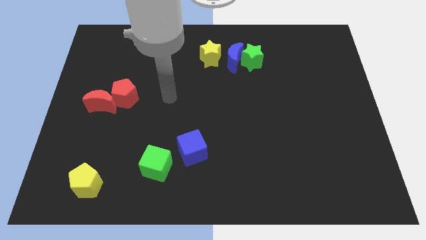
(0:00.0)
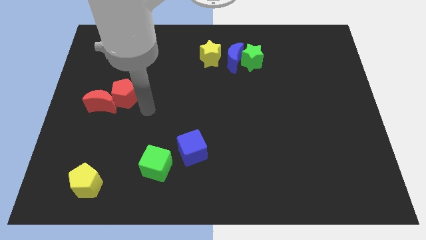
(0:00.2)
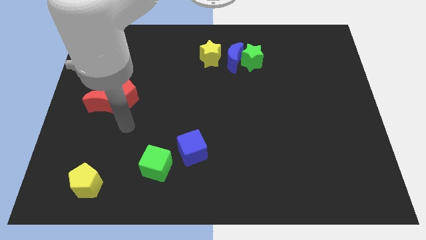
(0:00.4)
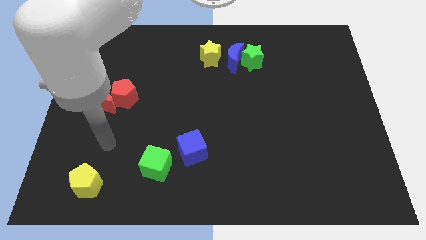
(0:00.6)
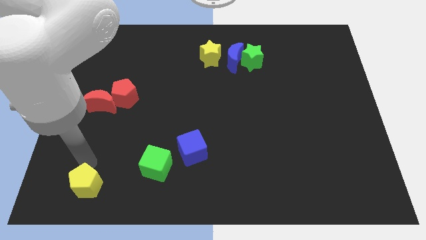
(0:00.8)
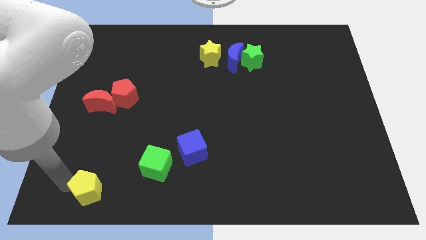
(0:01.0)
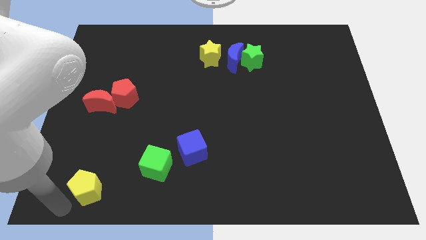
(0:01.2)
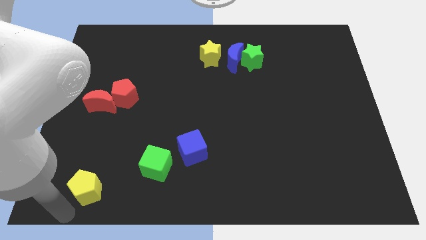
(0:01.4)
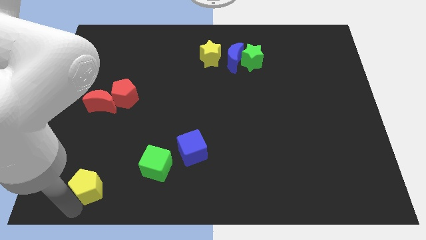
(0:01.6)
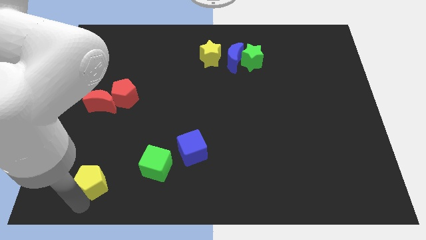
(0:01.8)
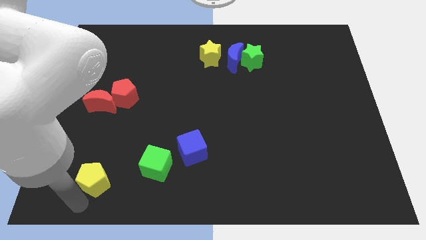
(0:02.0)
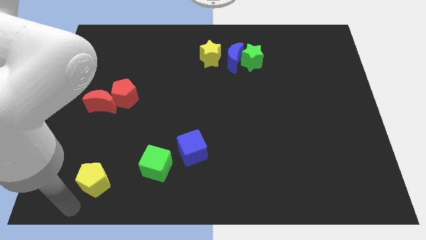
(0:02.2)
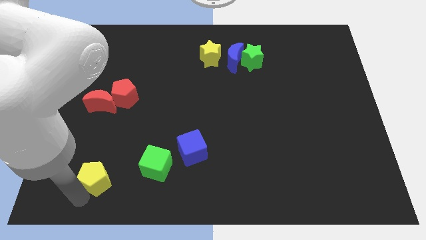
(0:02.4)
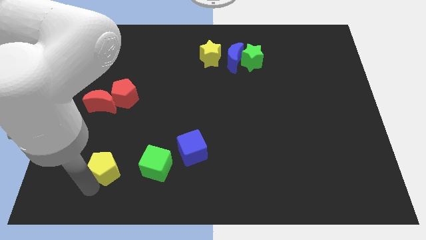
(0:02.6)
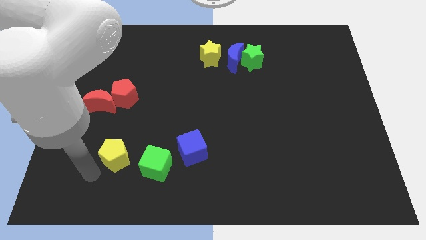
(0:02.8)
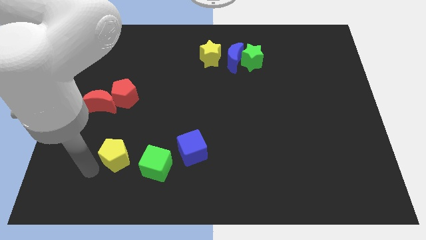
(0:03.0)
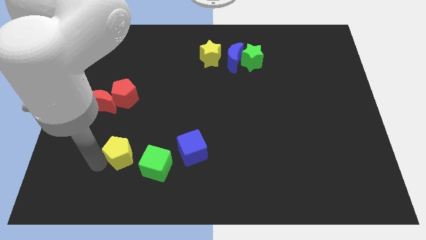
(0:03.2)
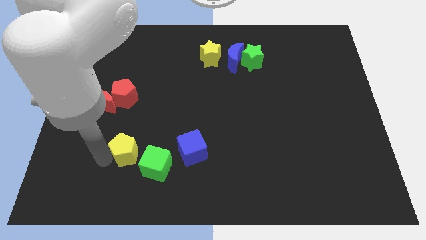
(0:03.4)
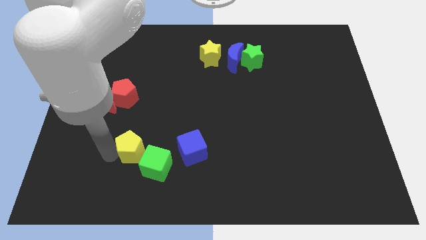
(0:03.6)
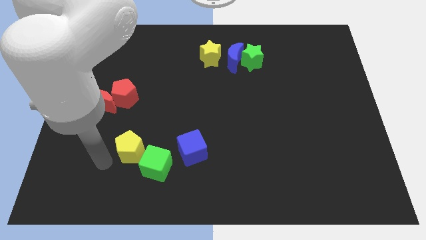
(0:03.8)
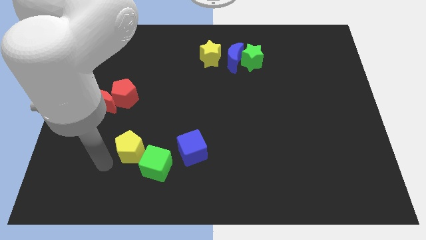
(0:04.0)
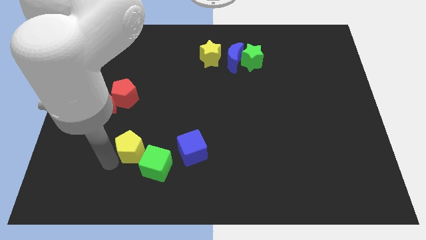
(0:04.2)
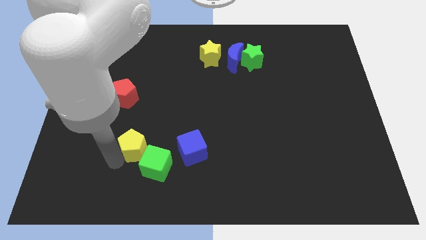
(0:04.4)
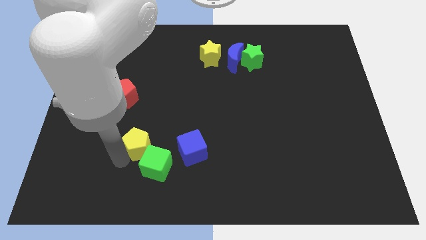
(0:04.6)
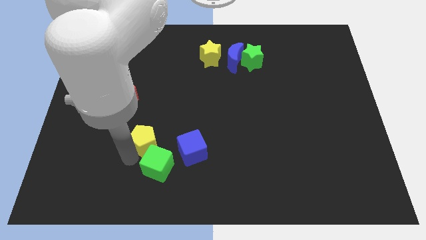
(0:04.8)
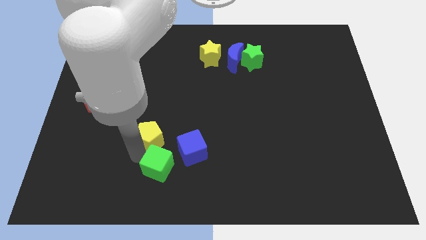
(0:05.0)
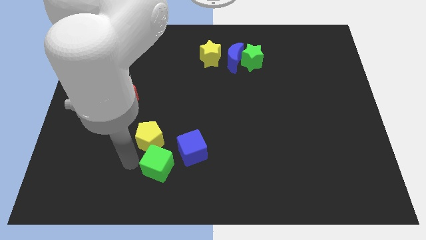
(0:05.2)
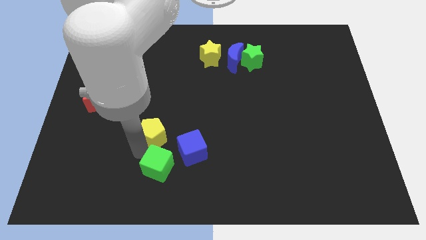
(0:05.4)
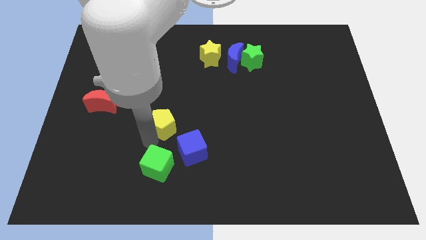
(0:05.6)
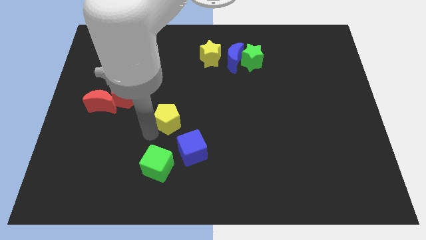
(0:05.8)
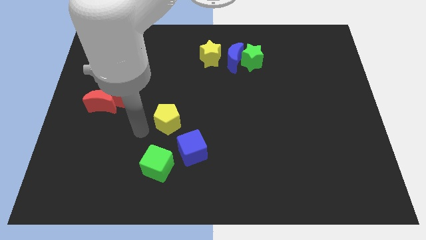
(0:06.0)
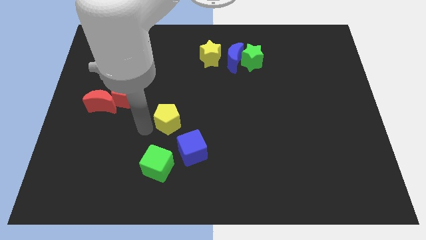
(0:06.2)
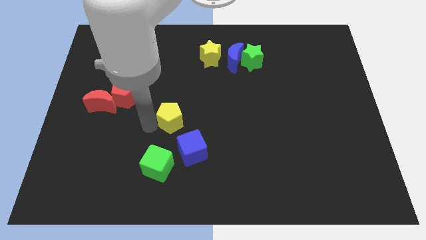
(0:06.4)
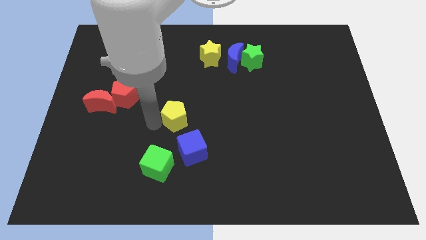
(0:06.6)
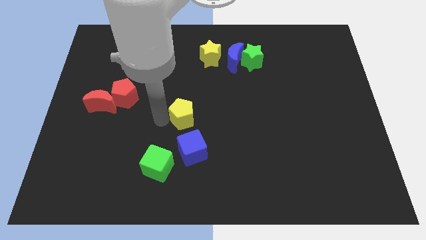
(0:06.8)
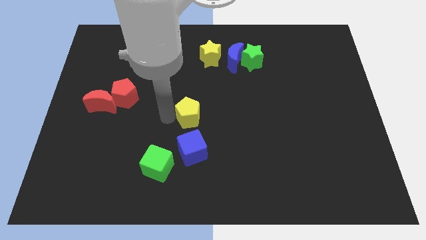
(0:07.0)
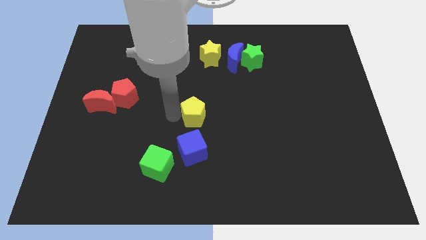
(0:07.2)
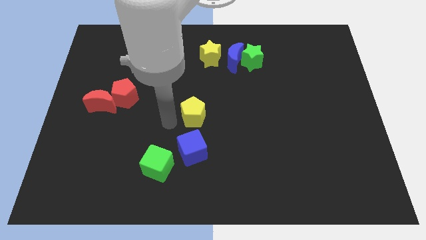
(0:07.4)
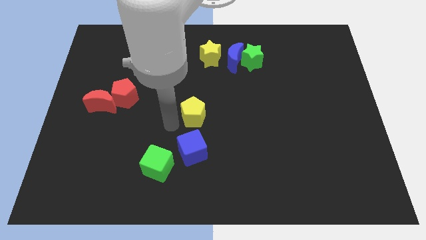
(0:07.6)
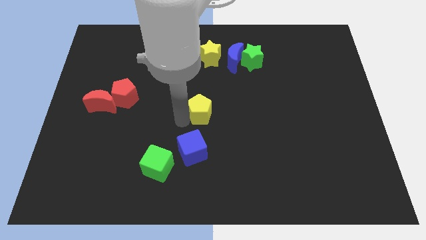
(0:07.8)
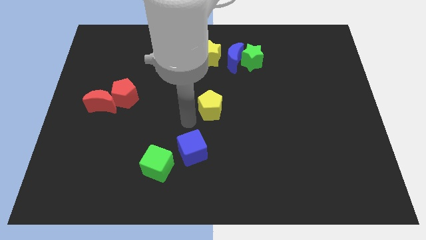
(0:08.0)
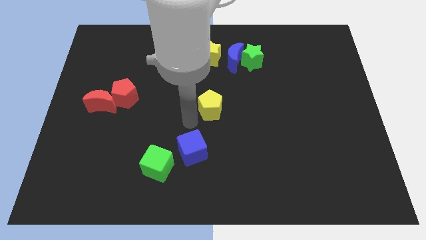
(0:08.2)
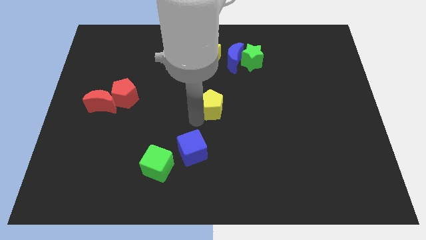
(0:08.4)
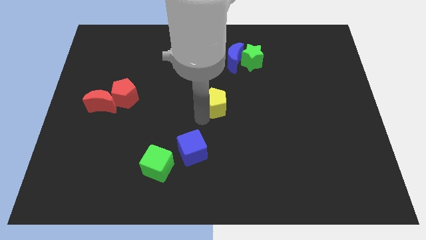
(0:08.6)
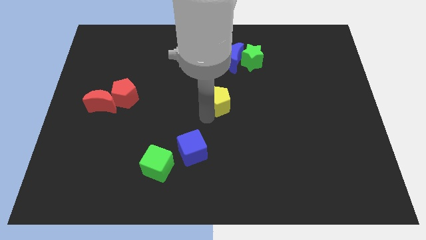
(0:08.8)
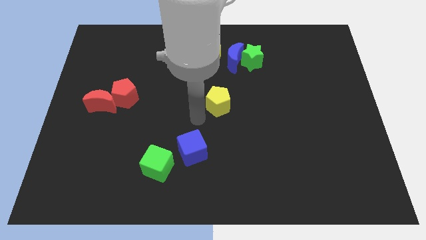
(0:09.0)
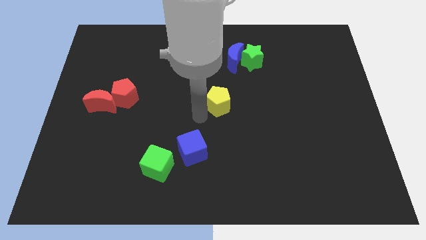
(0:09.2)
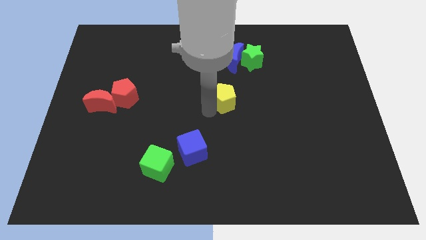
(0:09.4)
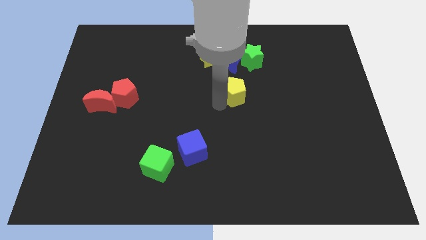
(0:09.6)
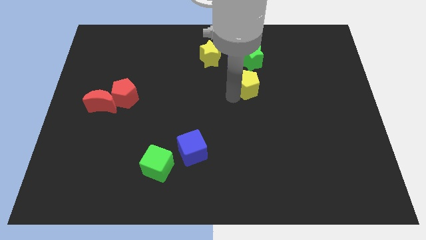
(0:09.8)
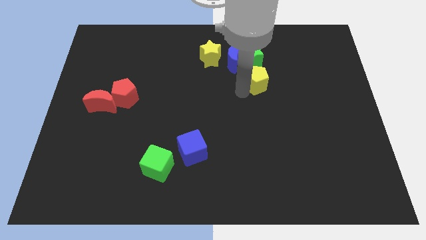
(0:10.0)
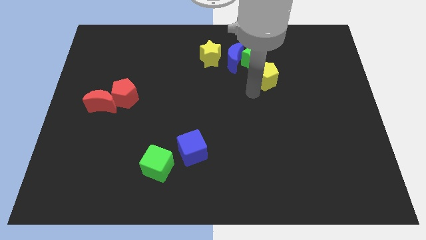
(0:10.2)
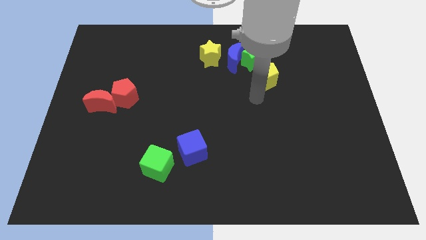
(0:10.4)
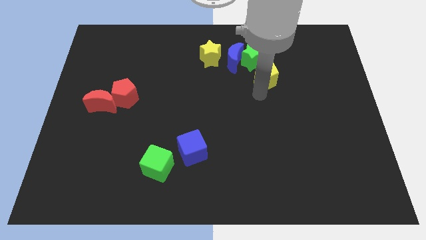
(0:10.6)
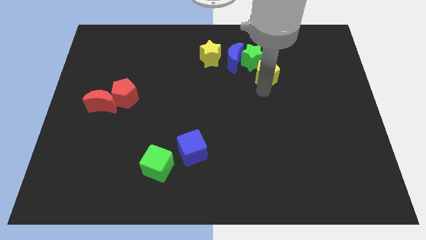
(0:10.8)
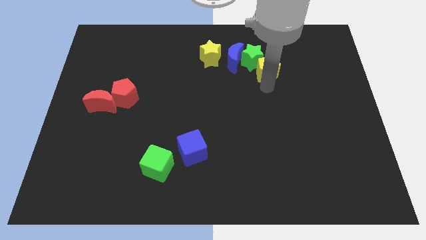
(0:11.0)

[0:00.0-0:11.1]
put the yellow pentagon to the right side of the blue moon

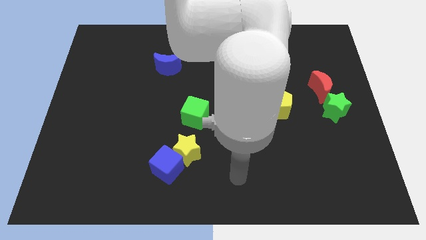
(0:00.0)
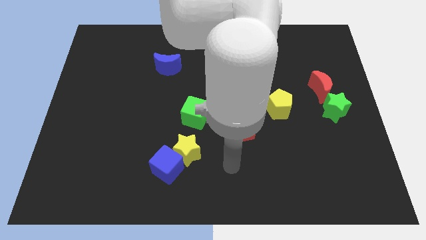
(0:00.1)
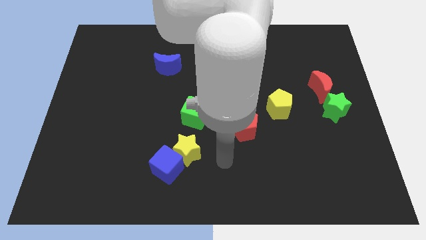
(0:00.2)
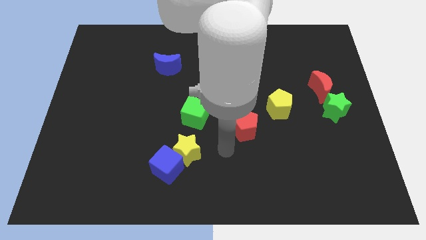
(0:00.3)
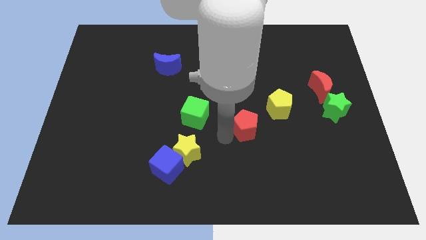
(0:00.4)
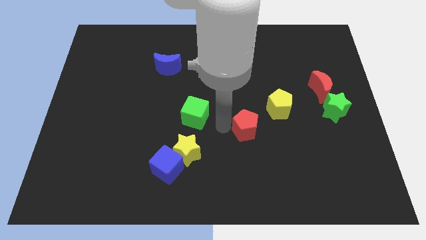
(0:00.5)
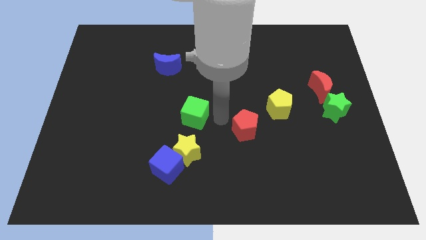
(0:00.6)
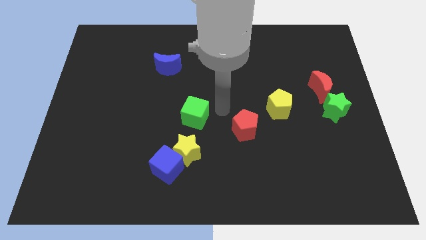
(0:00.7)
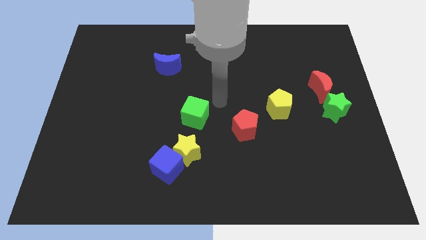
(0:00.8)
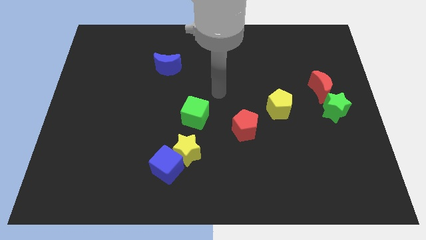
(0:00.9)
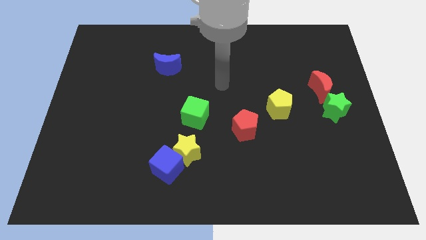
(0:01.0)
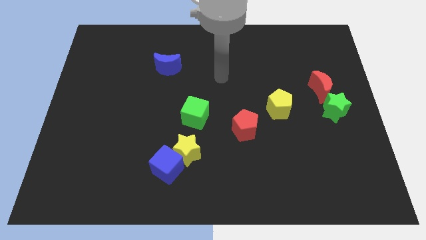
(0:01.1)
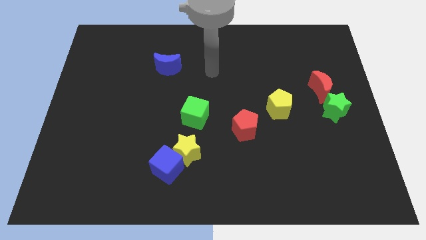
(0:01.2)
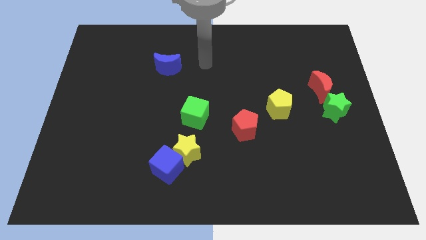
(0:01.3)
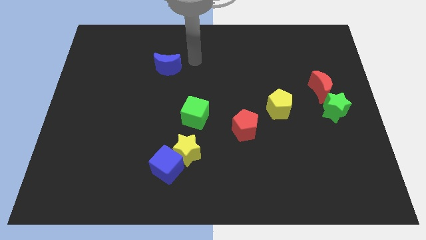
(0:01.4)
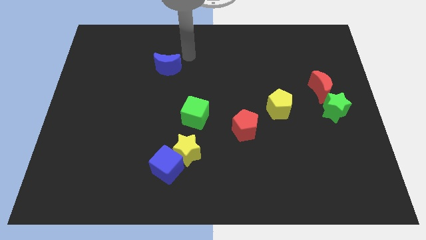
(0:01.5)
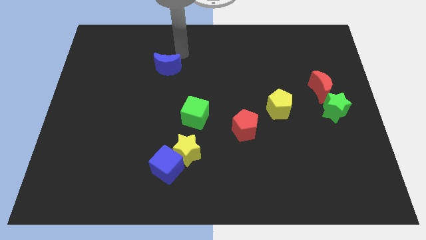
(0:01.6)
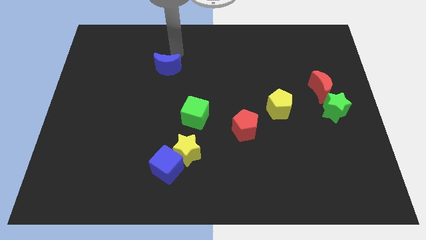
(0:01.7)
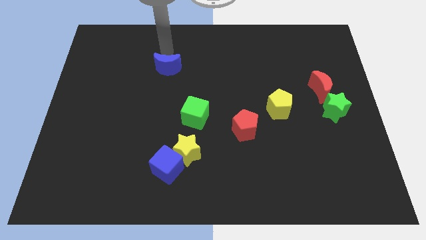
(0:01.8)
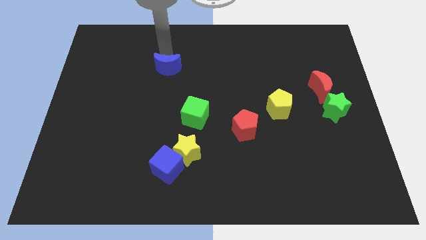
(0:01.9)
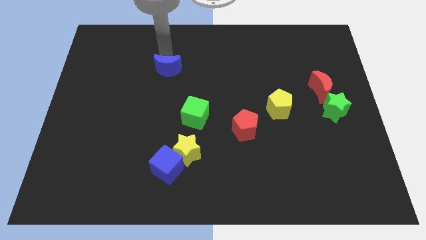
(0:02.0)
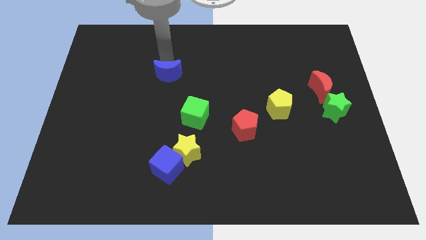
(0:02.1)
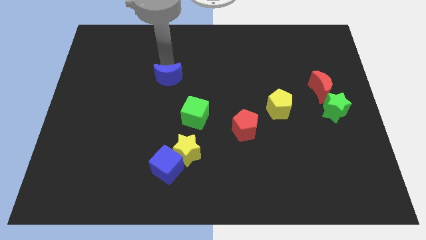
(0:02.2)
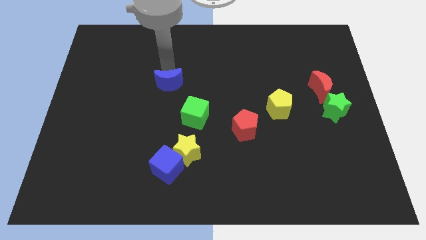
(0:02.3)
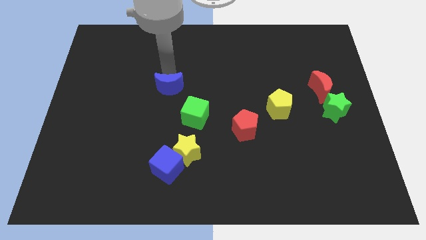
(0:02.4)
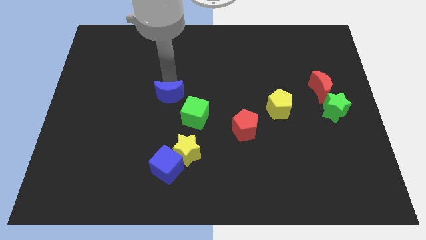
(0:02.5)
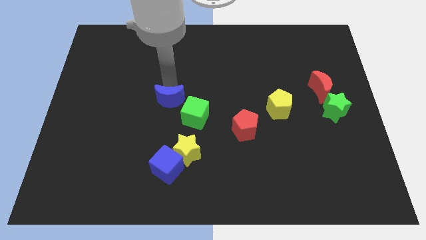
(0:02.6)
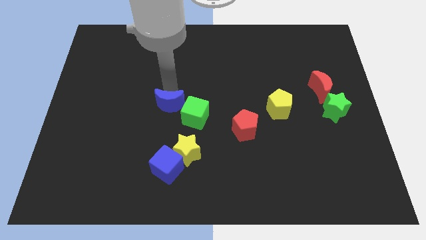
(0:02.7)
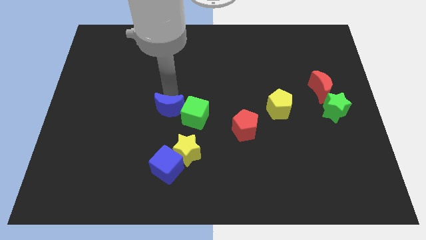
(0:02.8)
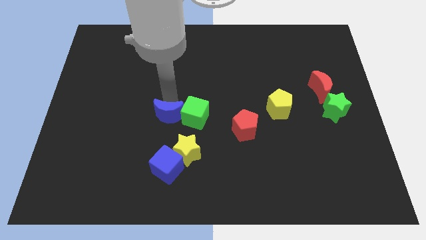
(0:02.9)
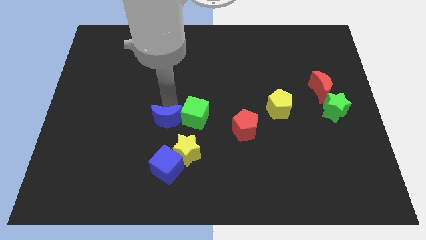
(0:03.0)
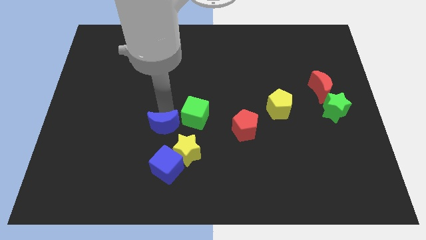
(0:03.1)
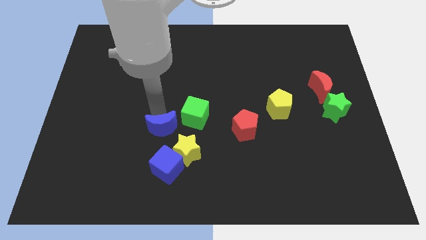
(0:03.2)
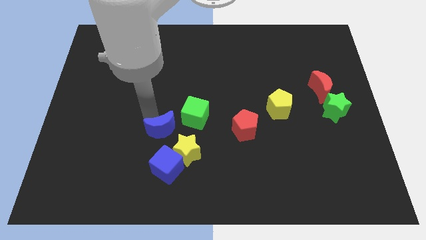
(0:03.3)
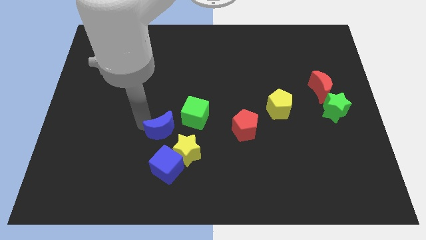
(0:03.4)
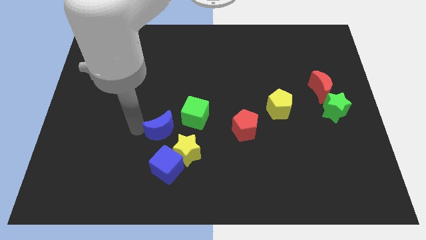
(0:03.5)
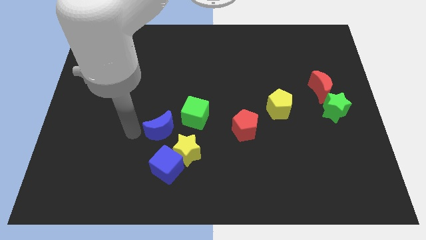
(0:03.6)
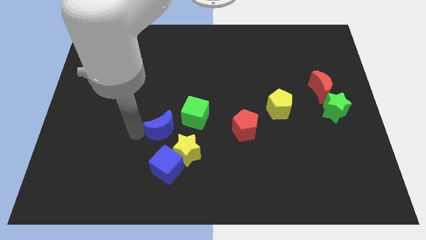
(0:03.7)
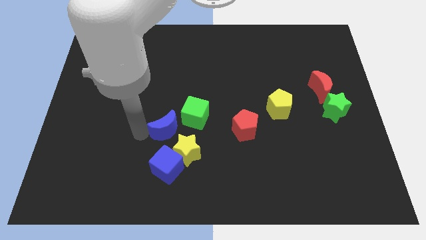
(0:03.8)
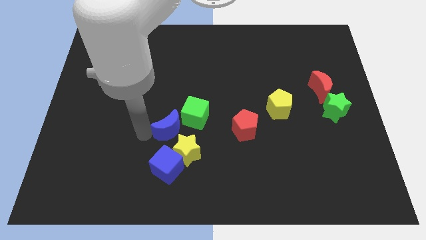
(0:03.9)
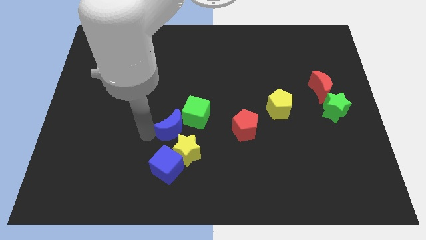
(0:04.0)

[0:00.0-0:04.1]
move the blue moon left of the red pentagon
